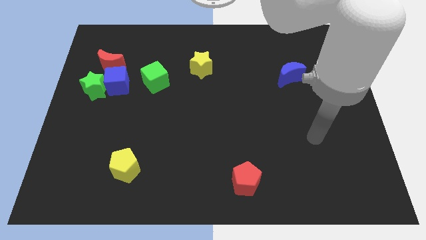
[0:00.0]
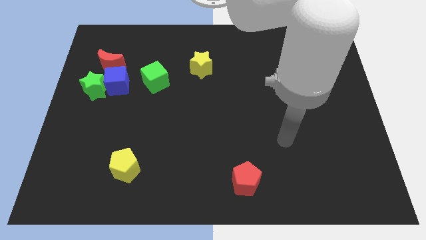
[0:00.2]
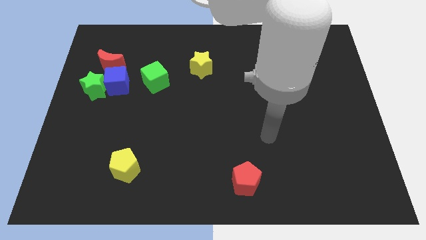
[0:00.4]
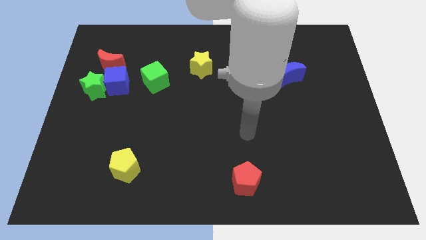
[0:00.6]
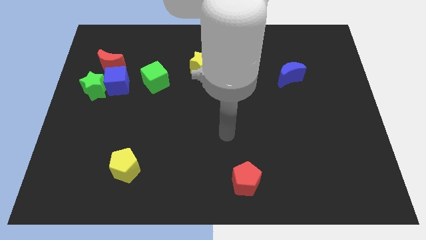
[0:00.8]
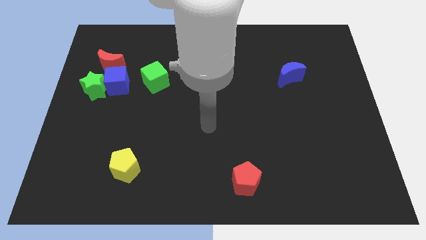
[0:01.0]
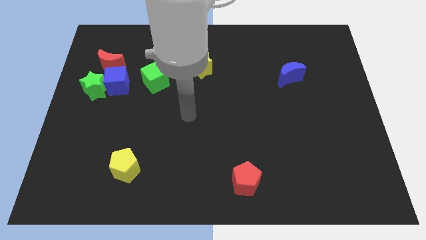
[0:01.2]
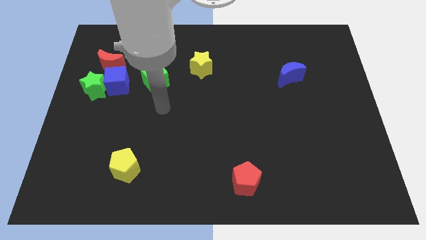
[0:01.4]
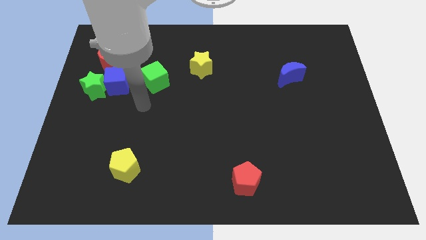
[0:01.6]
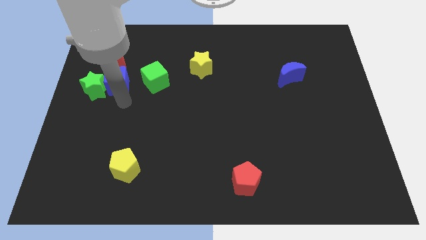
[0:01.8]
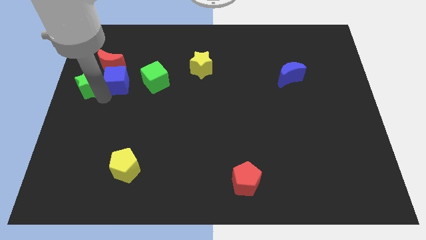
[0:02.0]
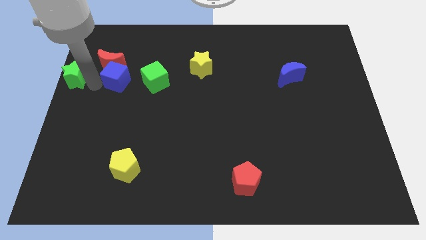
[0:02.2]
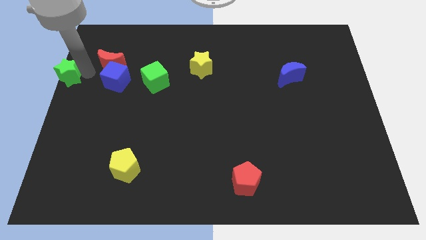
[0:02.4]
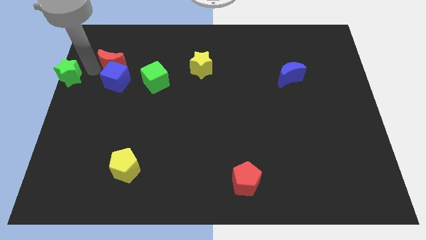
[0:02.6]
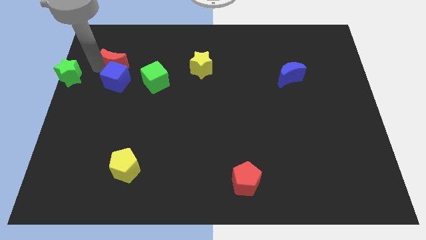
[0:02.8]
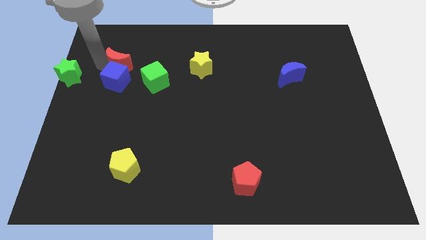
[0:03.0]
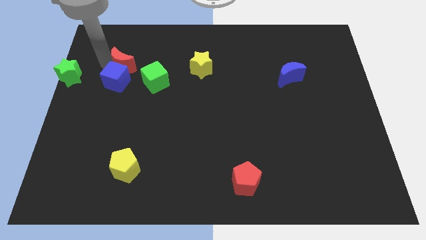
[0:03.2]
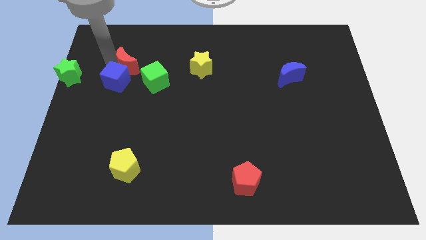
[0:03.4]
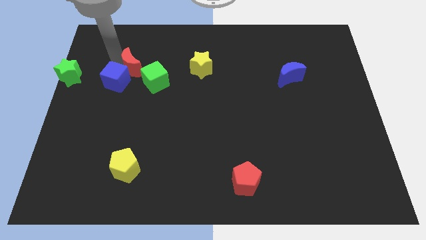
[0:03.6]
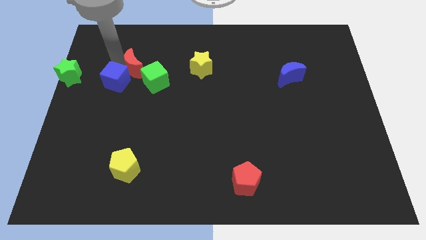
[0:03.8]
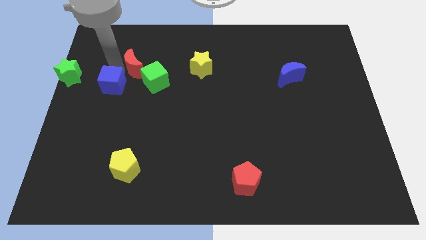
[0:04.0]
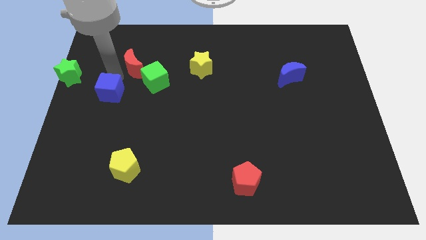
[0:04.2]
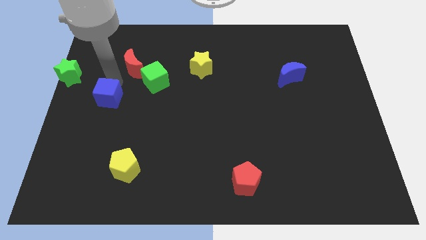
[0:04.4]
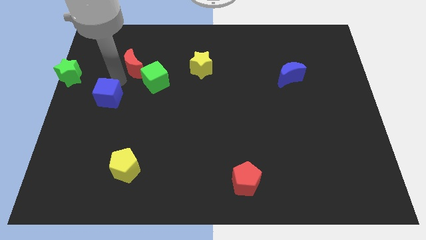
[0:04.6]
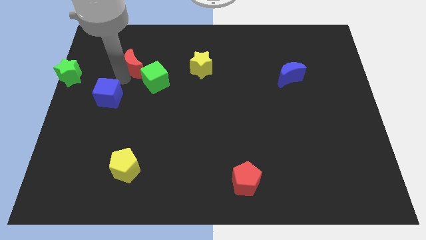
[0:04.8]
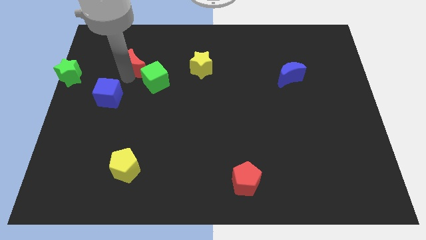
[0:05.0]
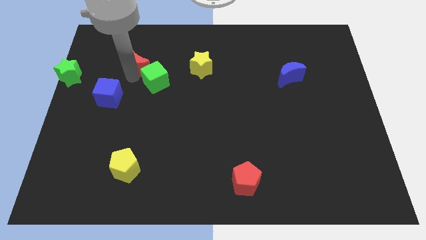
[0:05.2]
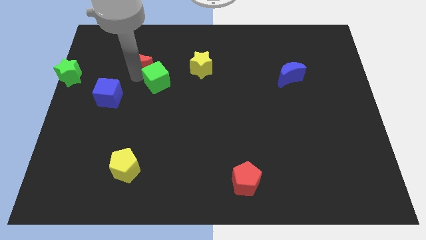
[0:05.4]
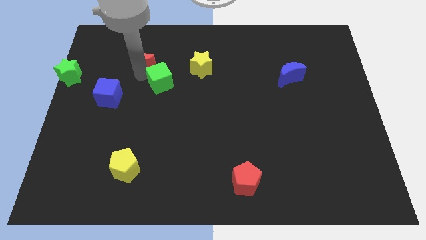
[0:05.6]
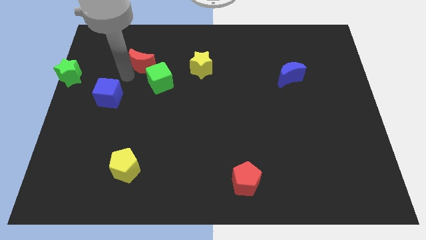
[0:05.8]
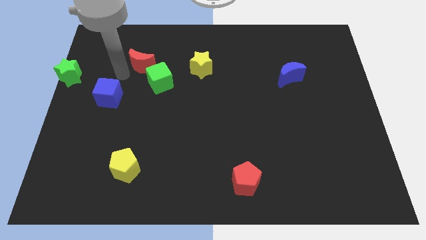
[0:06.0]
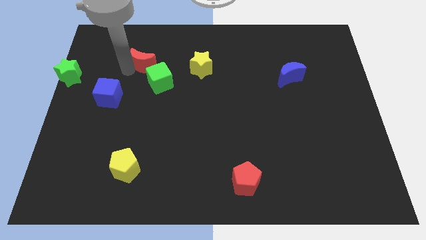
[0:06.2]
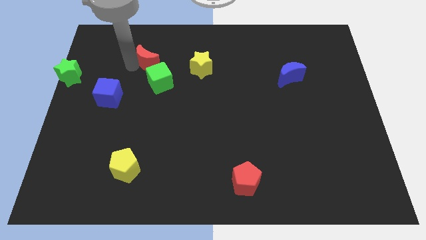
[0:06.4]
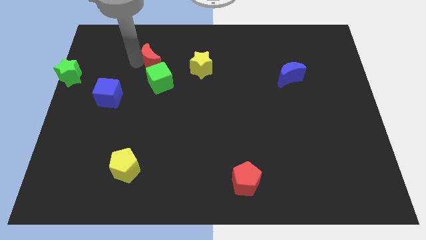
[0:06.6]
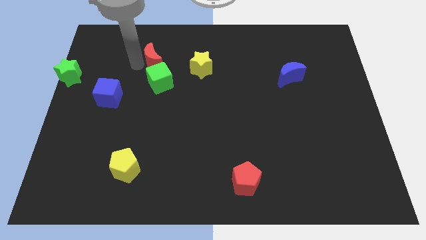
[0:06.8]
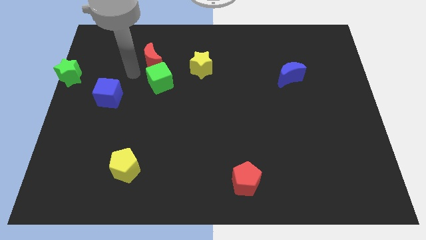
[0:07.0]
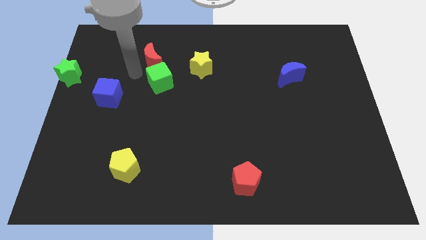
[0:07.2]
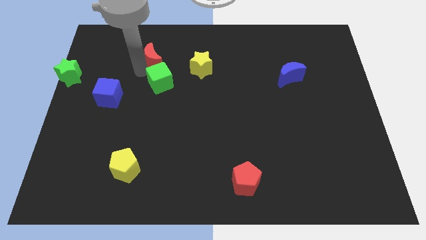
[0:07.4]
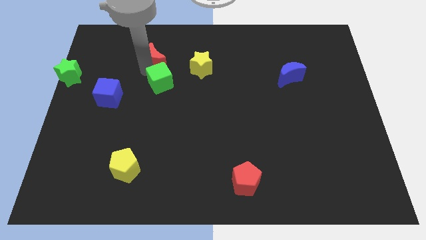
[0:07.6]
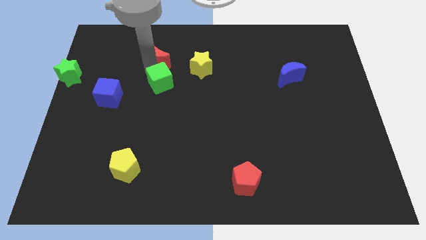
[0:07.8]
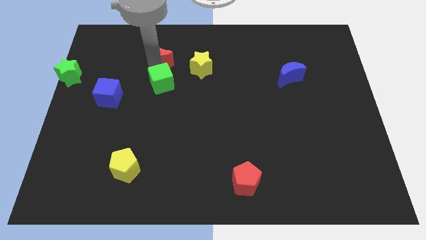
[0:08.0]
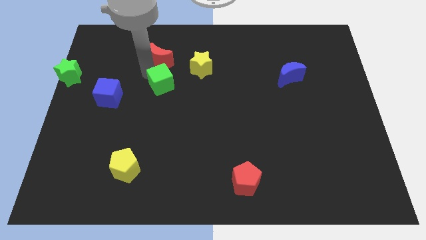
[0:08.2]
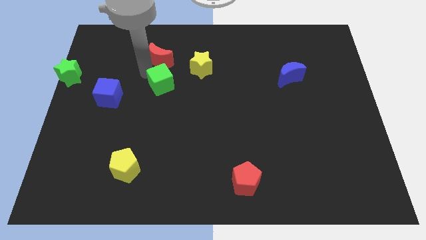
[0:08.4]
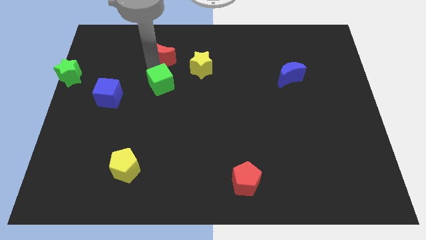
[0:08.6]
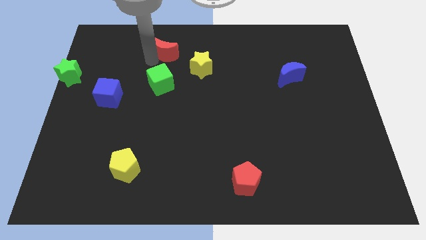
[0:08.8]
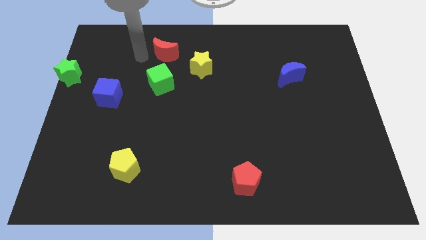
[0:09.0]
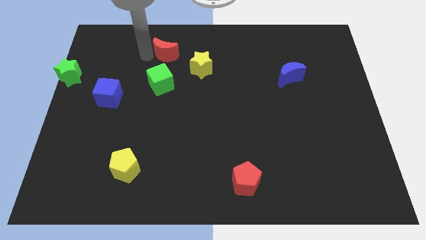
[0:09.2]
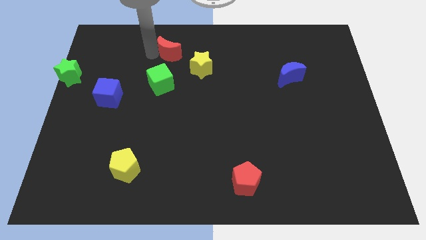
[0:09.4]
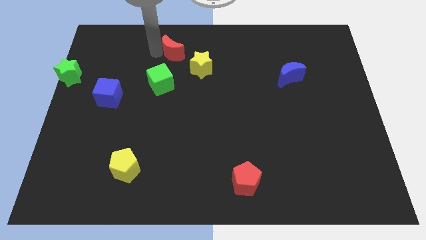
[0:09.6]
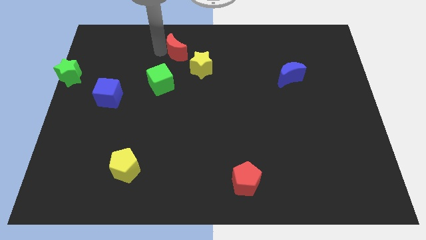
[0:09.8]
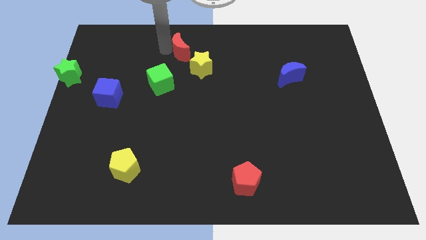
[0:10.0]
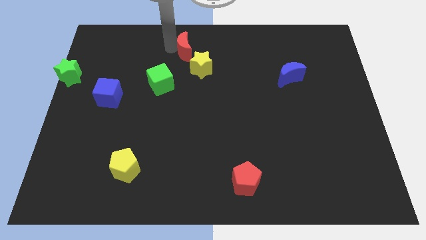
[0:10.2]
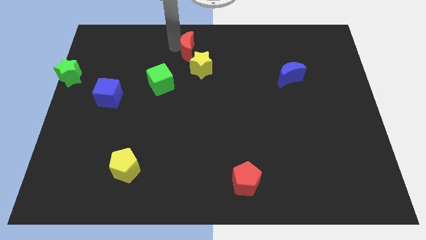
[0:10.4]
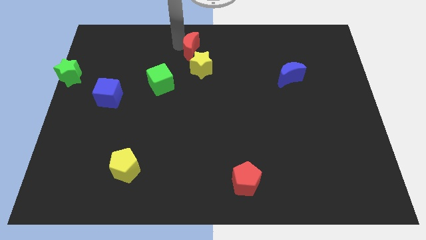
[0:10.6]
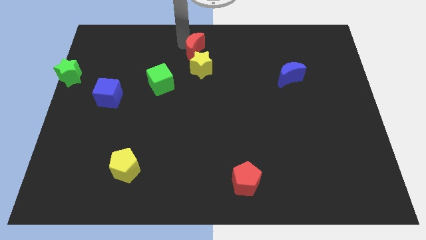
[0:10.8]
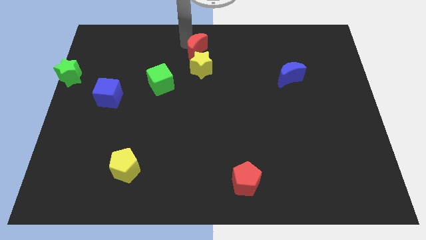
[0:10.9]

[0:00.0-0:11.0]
push the red moon to the right

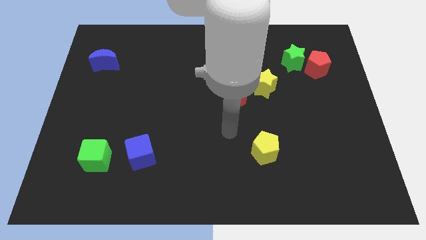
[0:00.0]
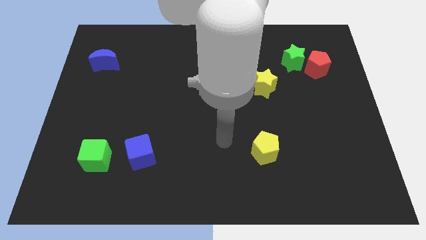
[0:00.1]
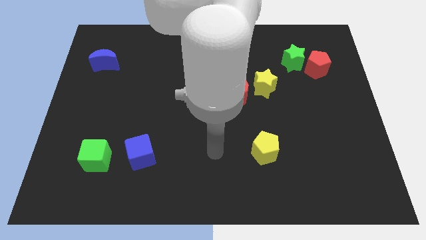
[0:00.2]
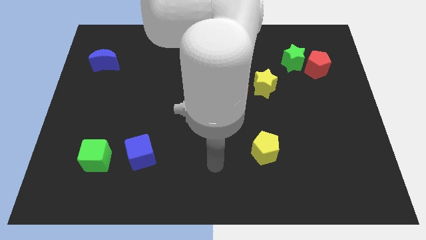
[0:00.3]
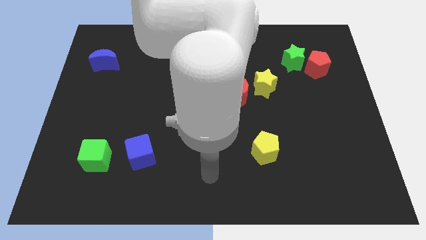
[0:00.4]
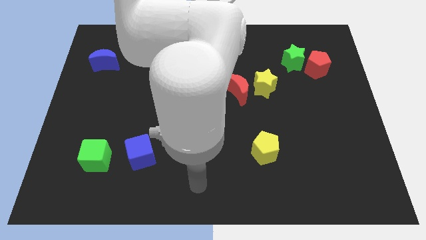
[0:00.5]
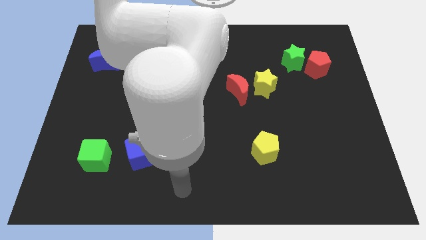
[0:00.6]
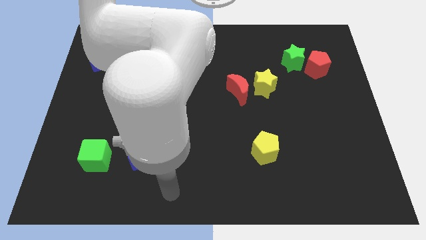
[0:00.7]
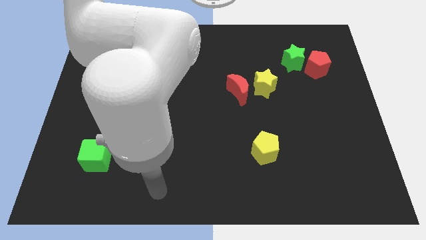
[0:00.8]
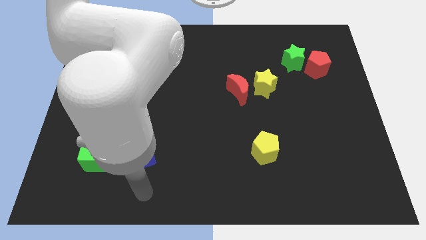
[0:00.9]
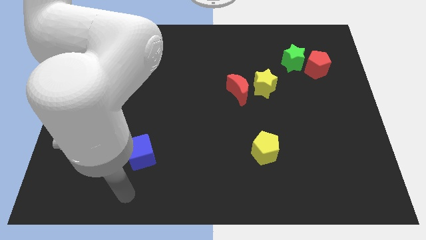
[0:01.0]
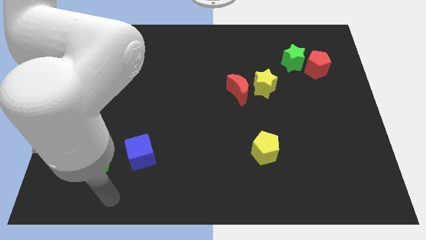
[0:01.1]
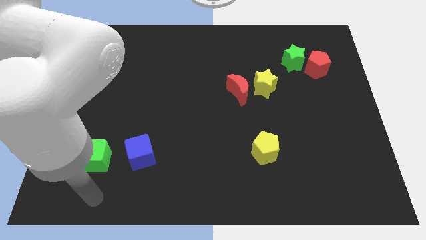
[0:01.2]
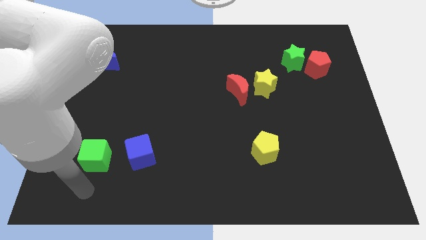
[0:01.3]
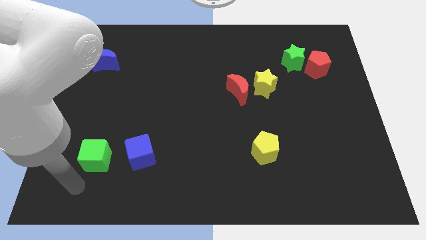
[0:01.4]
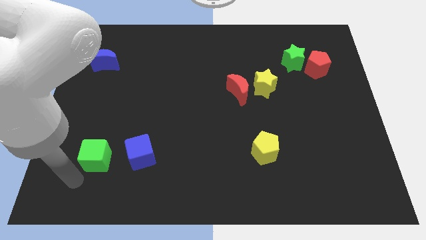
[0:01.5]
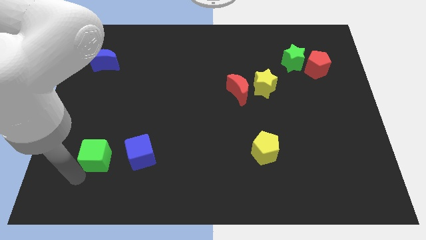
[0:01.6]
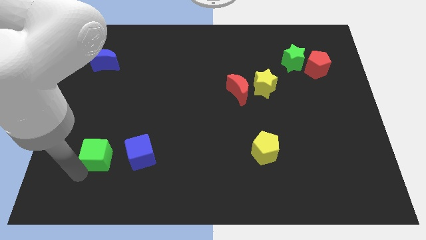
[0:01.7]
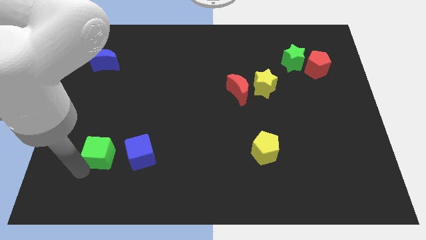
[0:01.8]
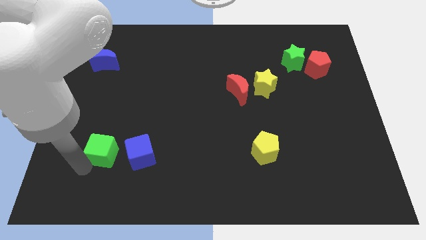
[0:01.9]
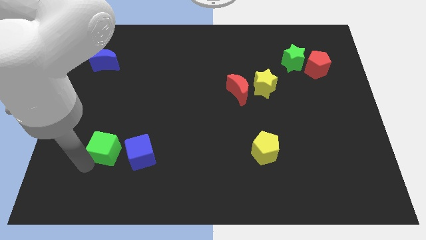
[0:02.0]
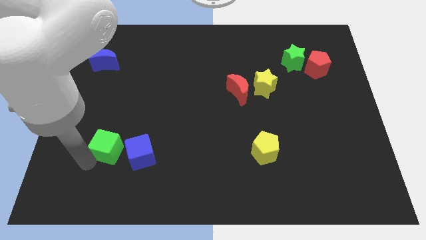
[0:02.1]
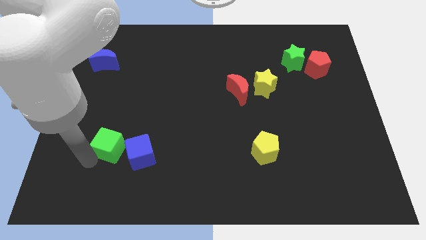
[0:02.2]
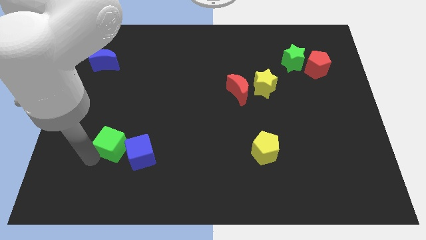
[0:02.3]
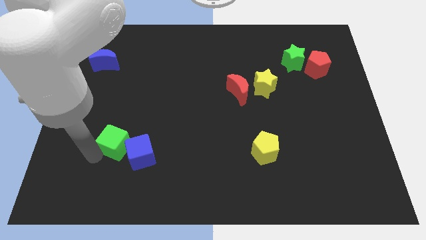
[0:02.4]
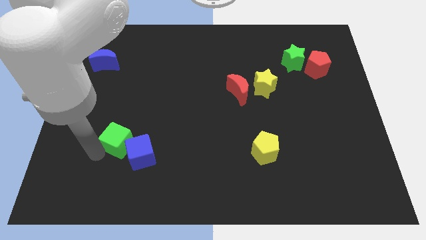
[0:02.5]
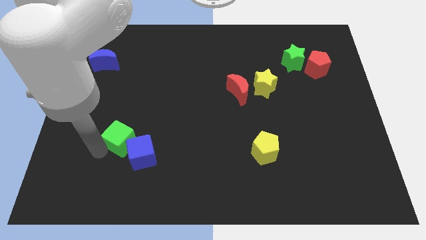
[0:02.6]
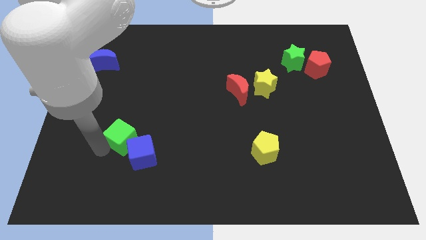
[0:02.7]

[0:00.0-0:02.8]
slightly move the green cube up and right diagonally
